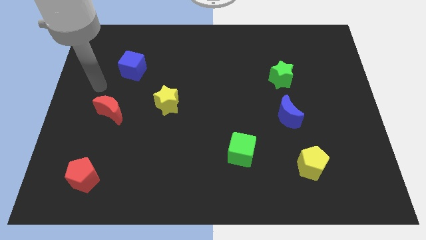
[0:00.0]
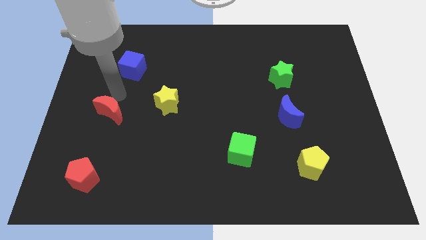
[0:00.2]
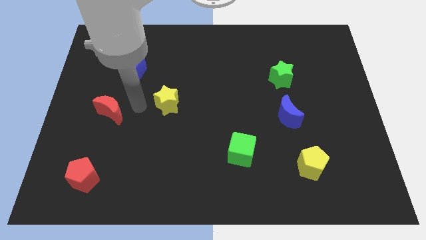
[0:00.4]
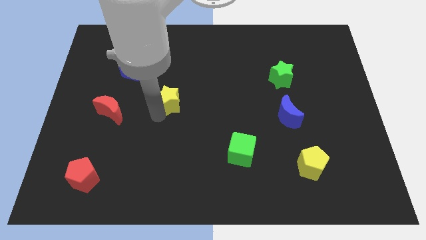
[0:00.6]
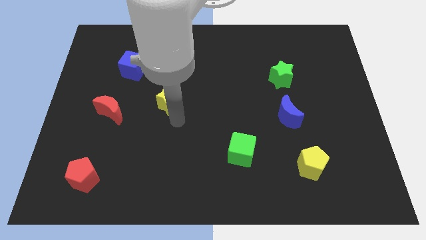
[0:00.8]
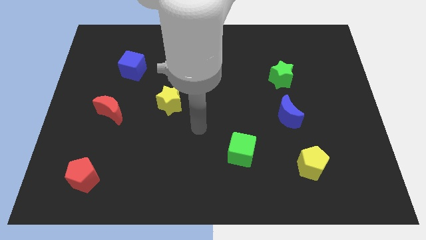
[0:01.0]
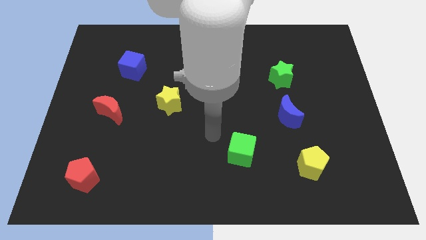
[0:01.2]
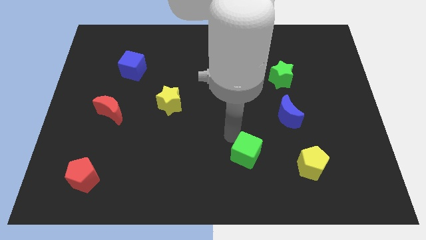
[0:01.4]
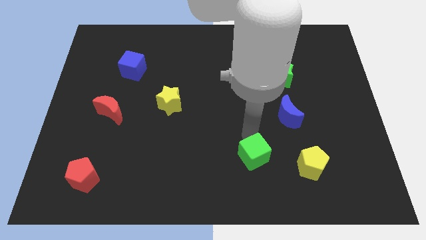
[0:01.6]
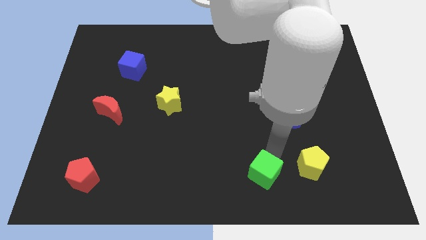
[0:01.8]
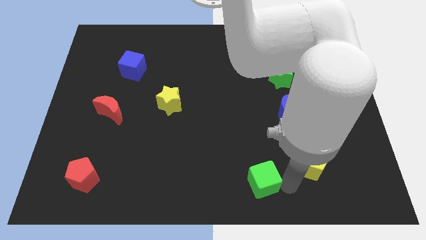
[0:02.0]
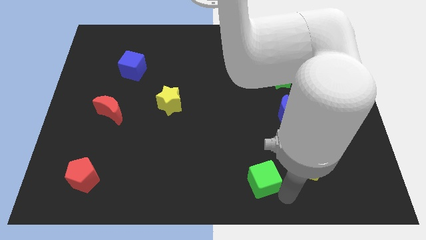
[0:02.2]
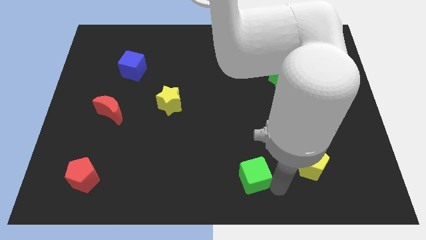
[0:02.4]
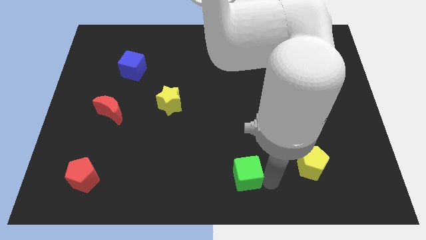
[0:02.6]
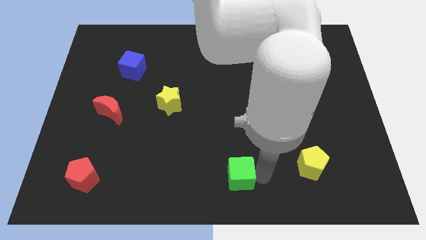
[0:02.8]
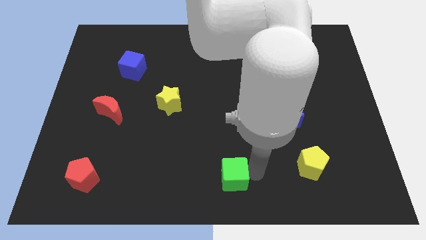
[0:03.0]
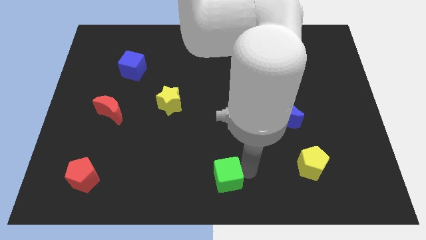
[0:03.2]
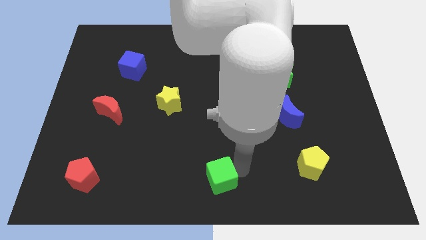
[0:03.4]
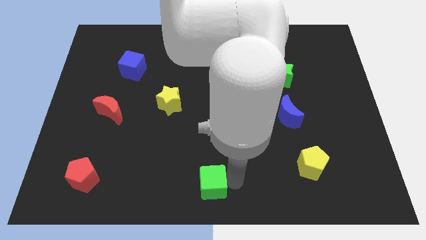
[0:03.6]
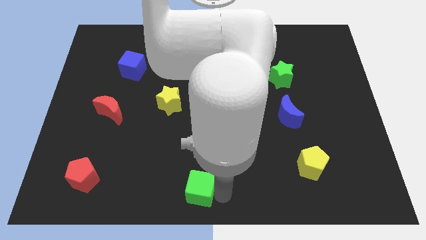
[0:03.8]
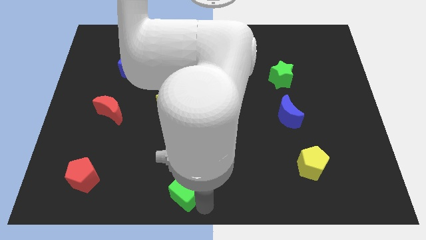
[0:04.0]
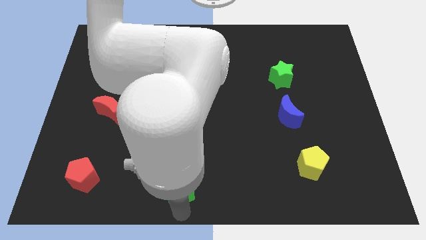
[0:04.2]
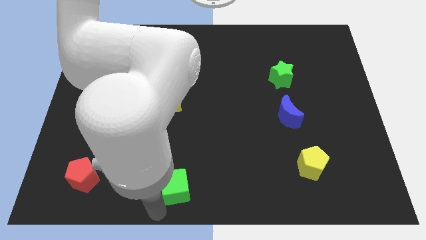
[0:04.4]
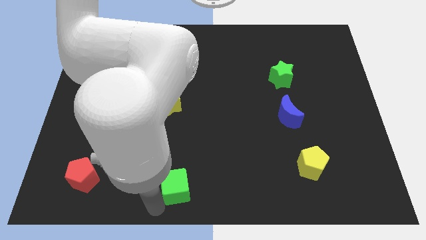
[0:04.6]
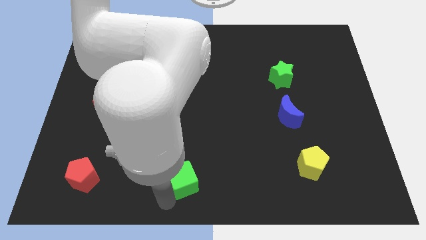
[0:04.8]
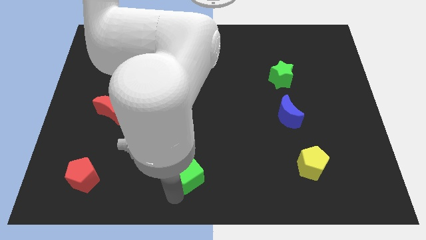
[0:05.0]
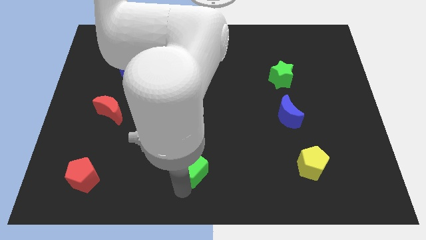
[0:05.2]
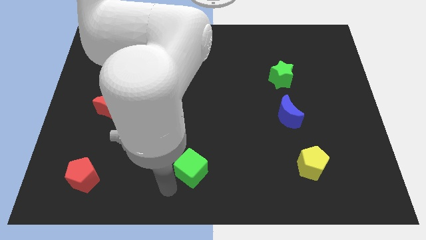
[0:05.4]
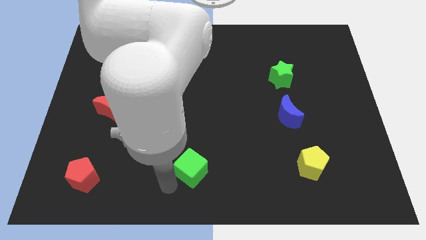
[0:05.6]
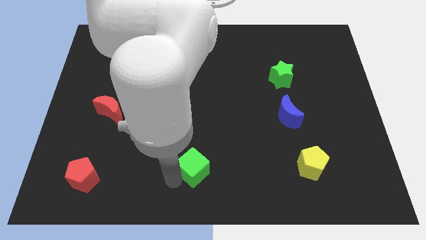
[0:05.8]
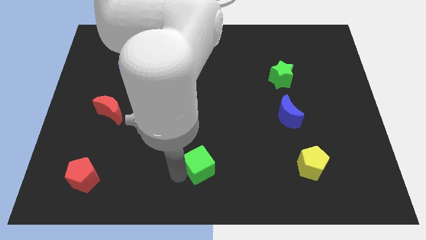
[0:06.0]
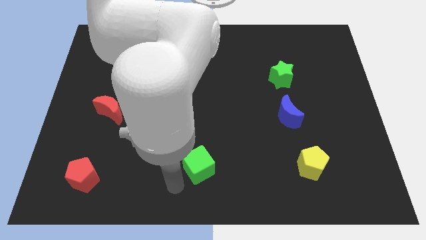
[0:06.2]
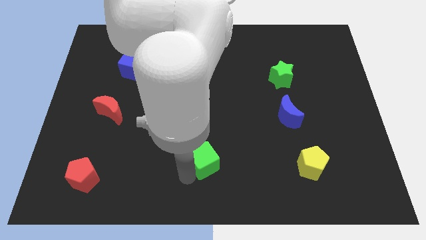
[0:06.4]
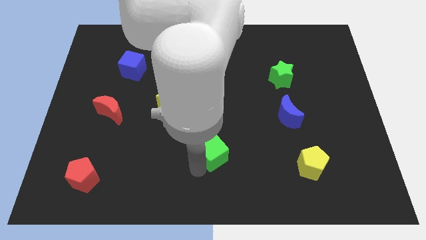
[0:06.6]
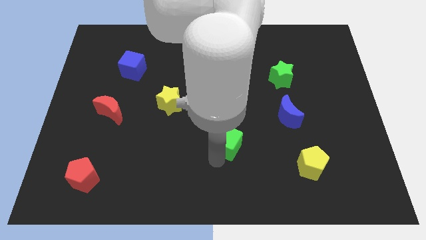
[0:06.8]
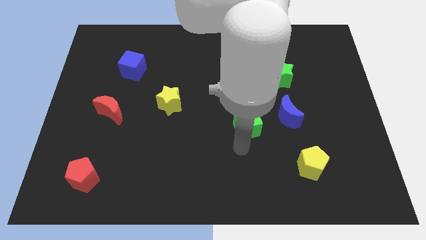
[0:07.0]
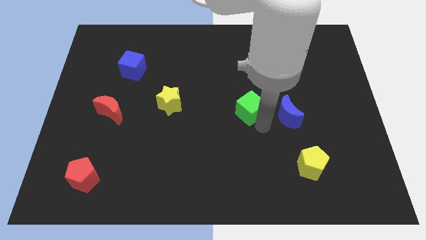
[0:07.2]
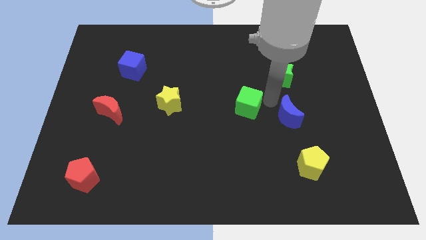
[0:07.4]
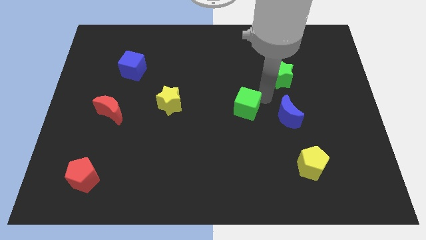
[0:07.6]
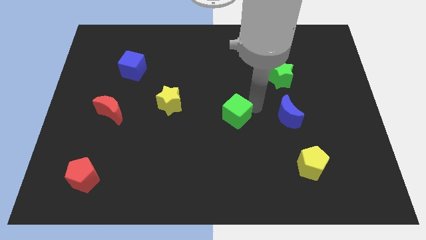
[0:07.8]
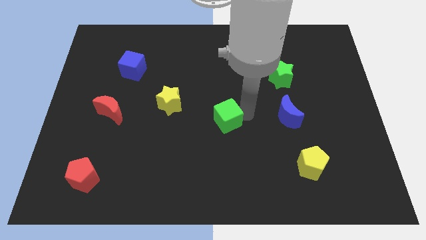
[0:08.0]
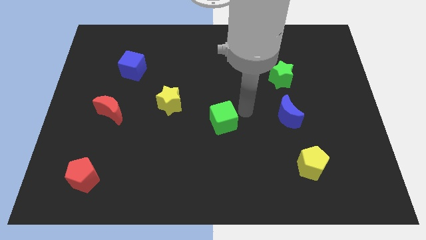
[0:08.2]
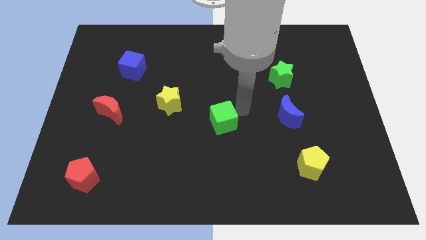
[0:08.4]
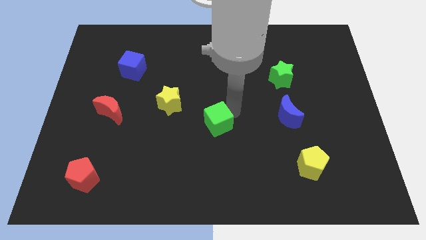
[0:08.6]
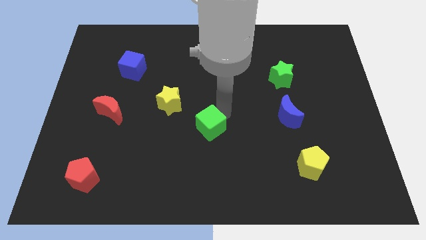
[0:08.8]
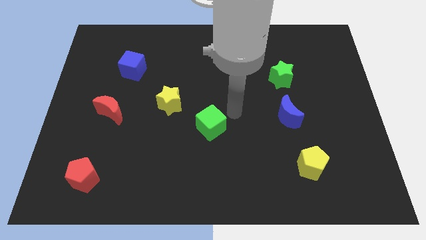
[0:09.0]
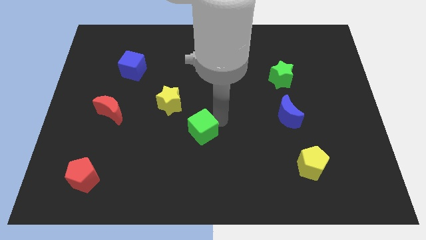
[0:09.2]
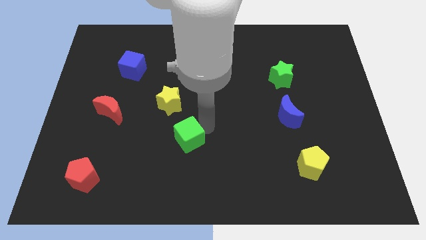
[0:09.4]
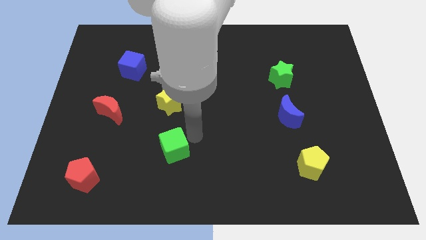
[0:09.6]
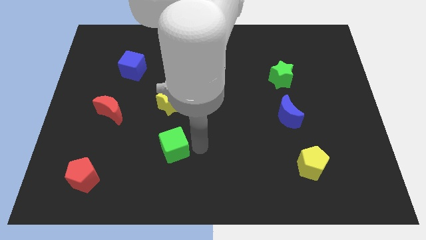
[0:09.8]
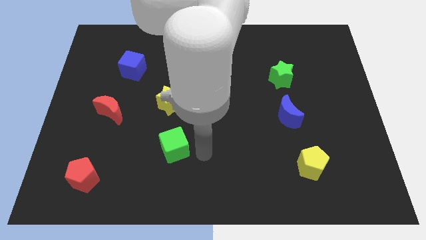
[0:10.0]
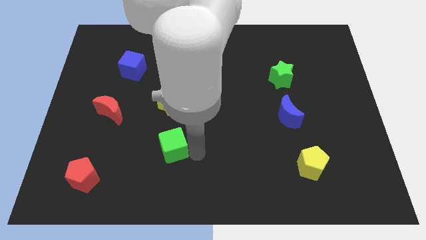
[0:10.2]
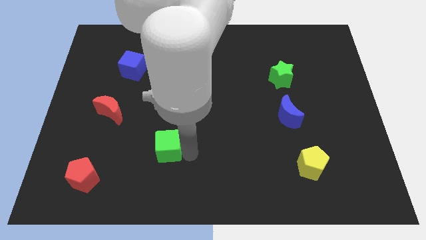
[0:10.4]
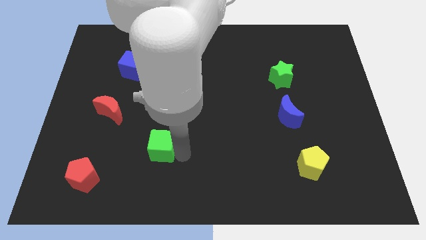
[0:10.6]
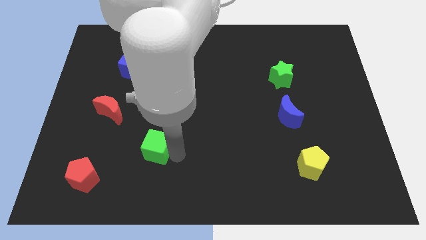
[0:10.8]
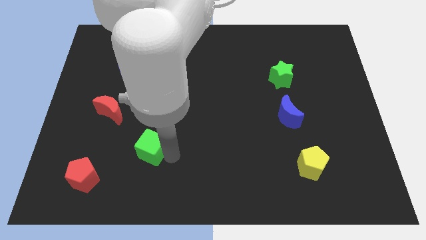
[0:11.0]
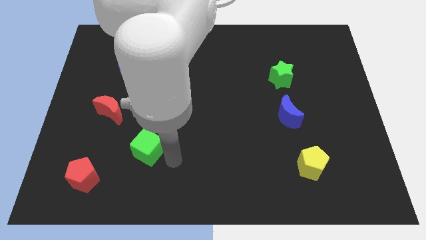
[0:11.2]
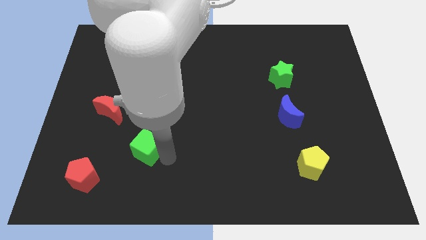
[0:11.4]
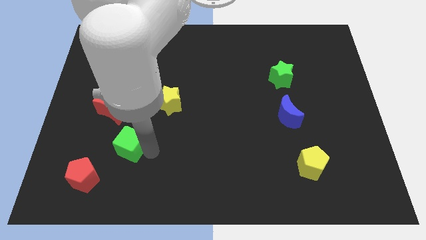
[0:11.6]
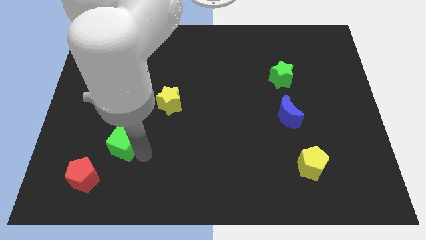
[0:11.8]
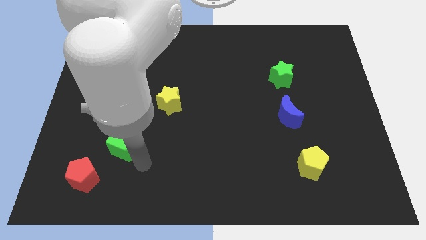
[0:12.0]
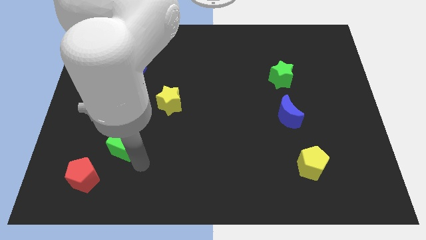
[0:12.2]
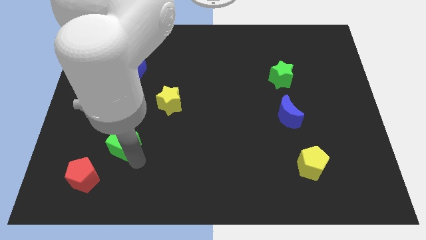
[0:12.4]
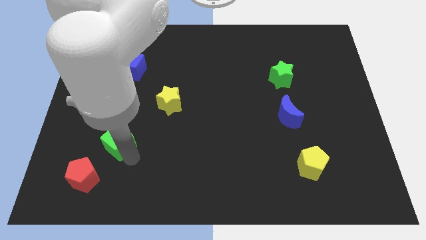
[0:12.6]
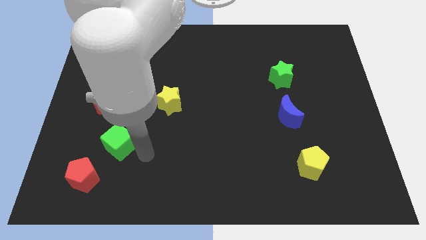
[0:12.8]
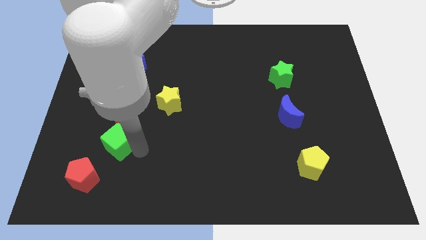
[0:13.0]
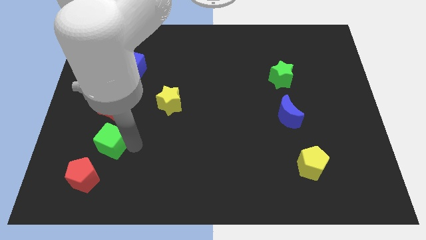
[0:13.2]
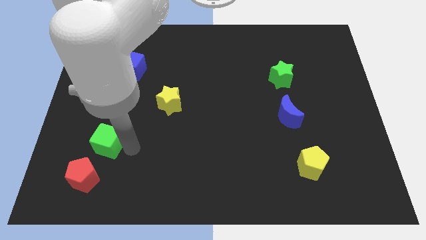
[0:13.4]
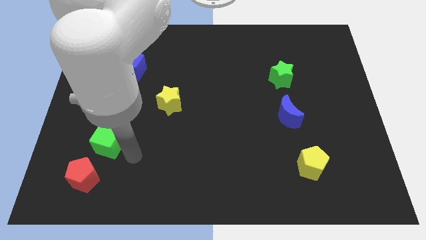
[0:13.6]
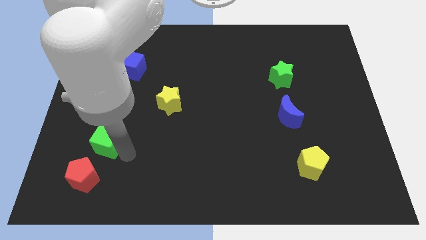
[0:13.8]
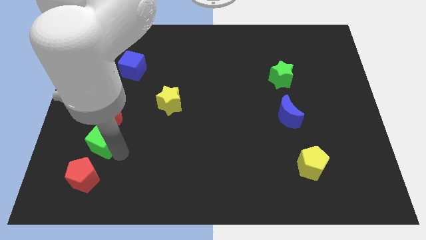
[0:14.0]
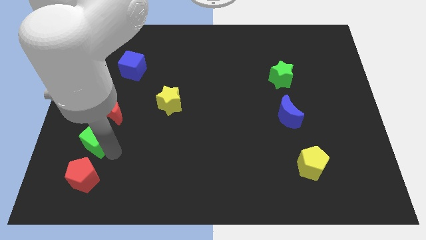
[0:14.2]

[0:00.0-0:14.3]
move the green cube diagonally down and to the left of the red moon
